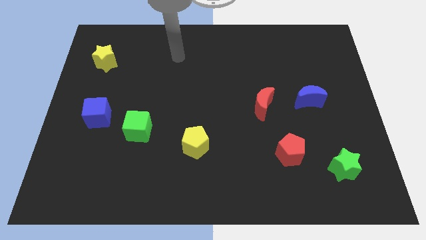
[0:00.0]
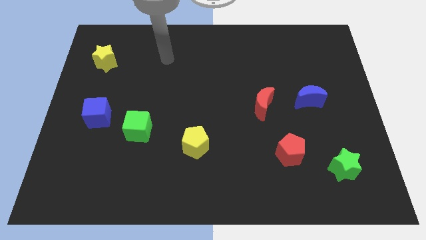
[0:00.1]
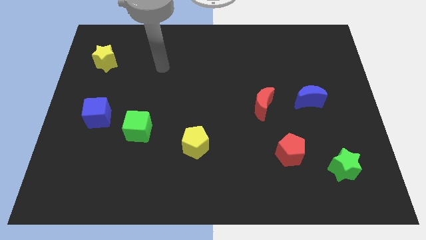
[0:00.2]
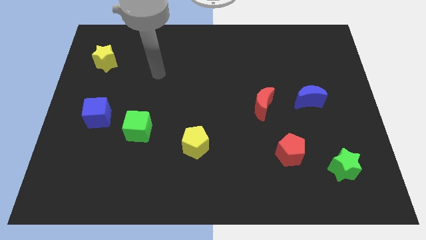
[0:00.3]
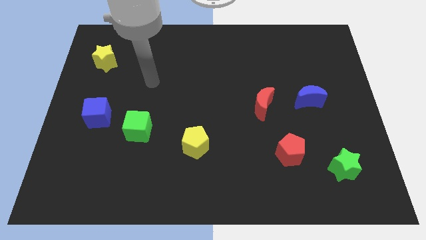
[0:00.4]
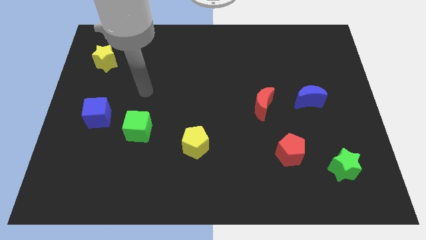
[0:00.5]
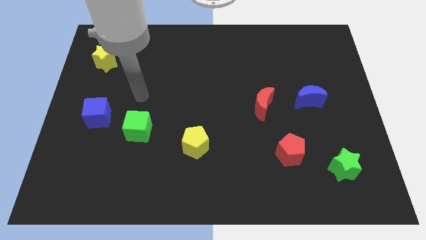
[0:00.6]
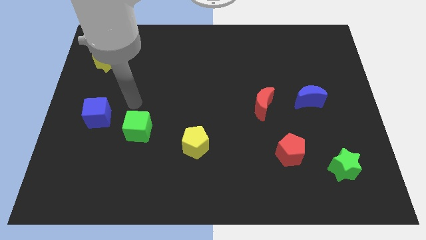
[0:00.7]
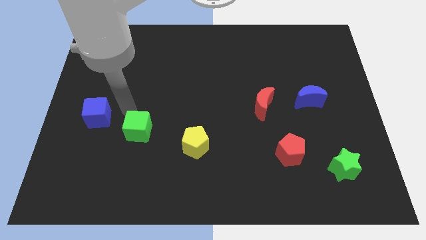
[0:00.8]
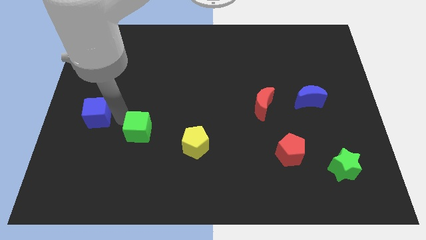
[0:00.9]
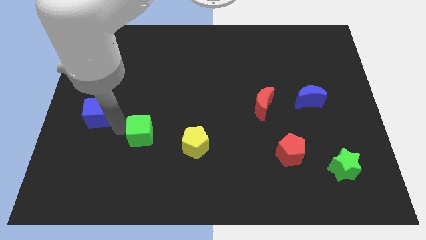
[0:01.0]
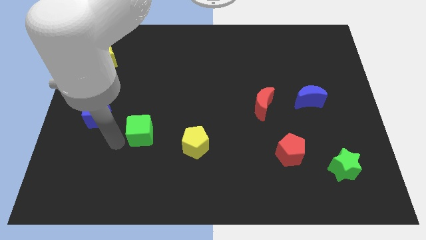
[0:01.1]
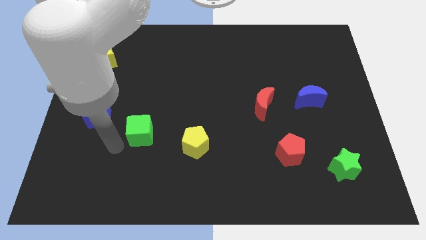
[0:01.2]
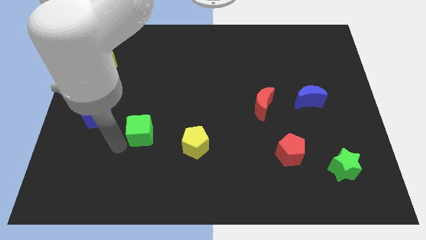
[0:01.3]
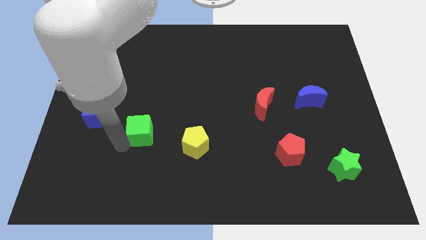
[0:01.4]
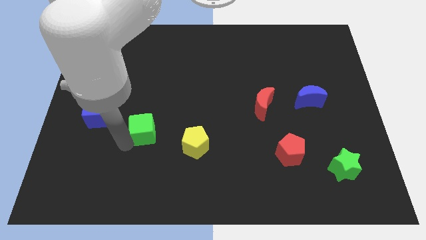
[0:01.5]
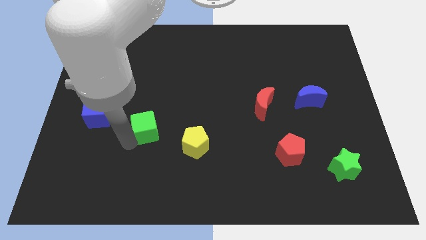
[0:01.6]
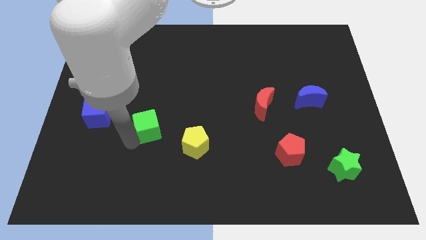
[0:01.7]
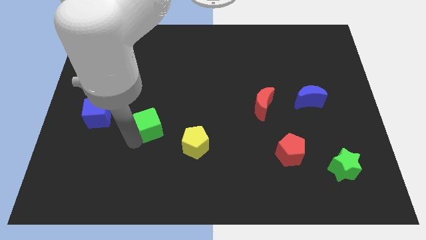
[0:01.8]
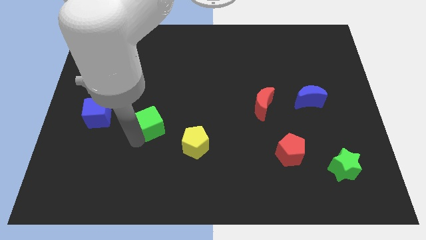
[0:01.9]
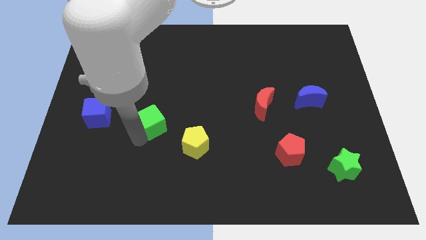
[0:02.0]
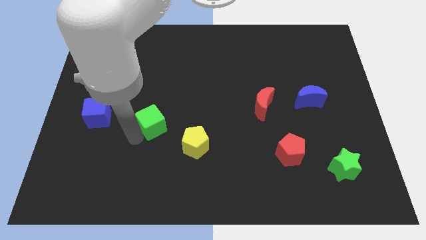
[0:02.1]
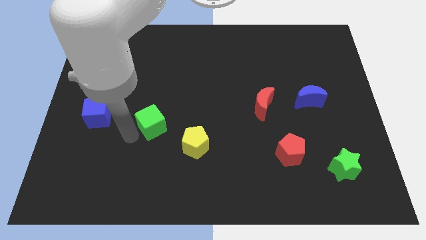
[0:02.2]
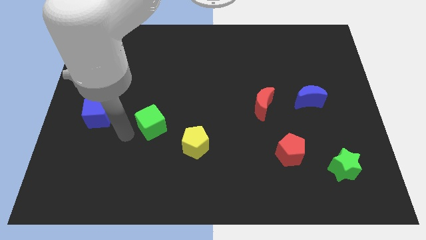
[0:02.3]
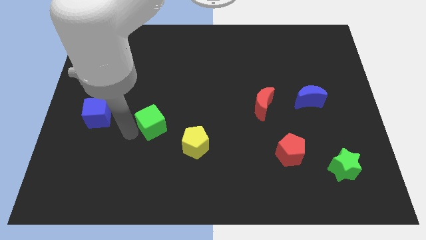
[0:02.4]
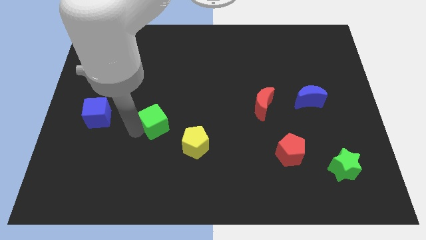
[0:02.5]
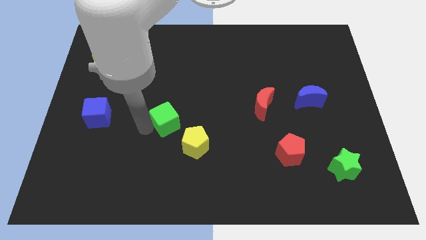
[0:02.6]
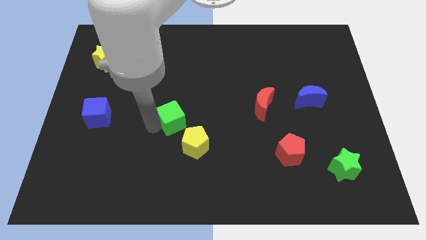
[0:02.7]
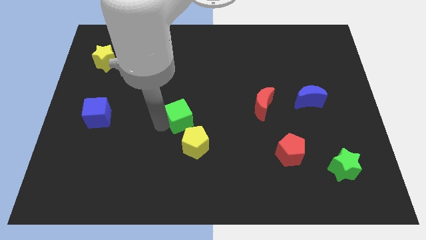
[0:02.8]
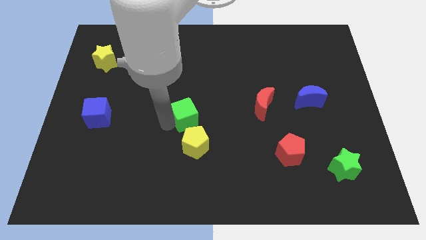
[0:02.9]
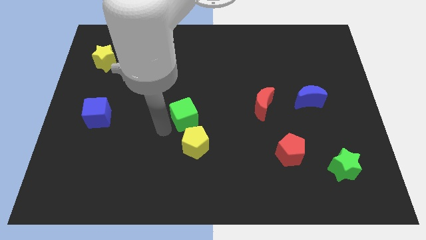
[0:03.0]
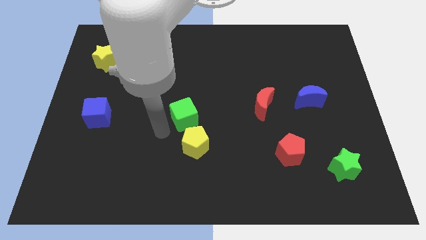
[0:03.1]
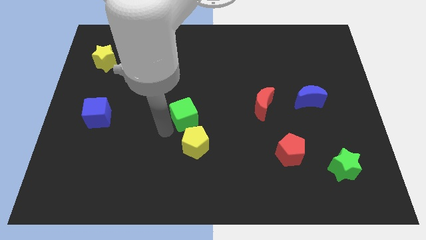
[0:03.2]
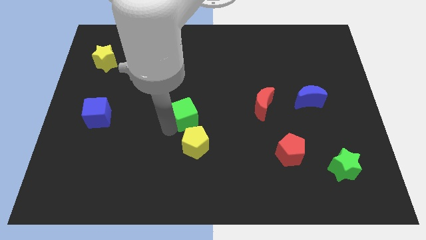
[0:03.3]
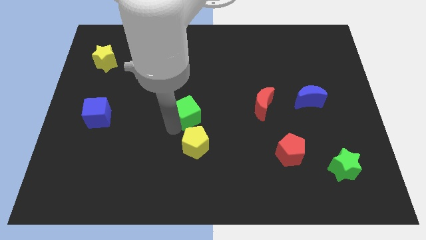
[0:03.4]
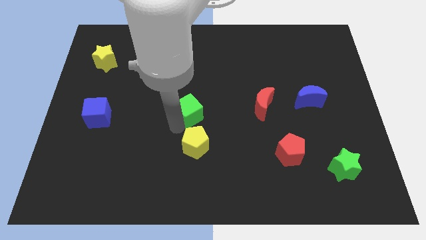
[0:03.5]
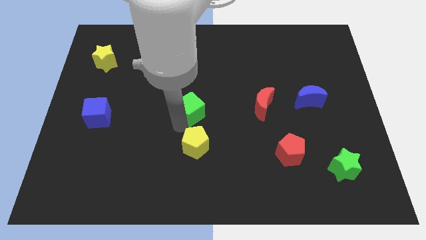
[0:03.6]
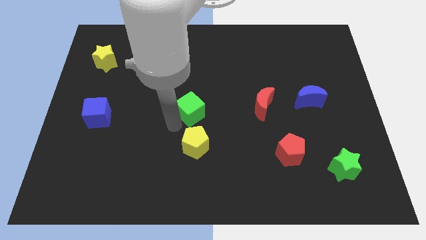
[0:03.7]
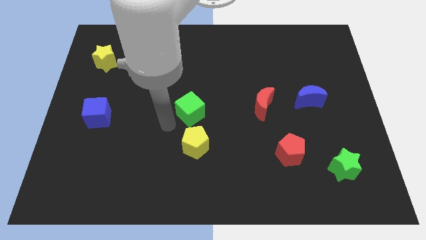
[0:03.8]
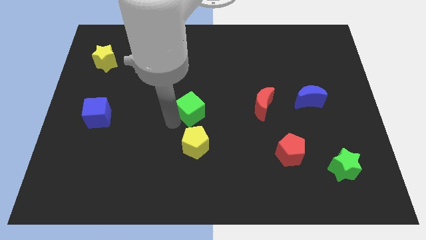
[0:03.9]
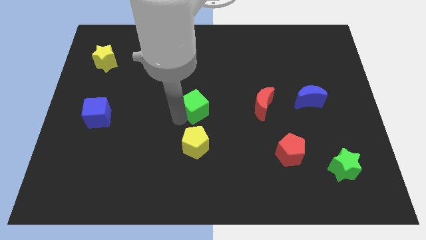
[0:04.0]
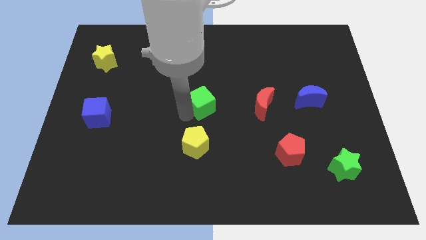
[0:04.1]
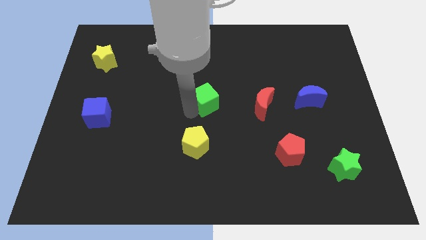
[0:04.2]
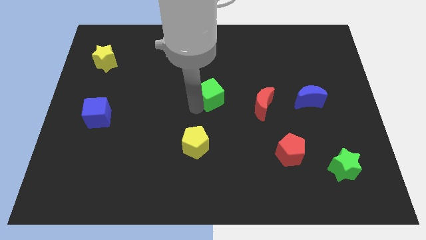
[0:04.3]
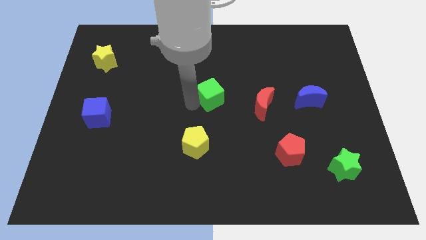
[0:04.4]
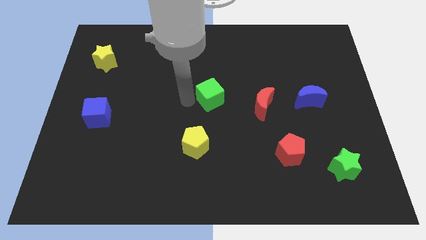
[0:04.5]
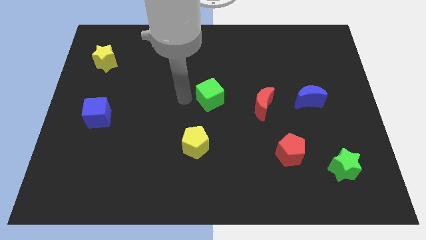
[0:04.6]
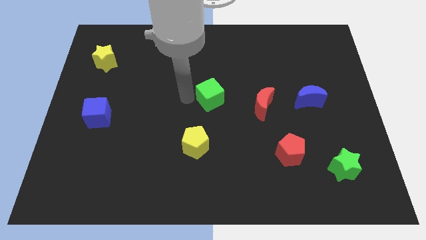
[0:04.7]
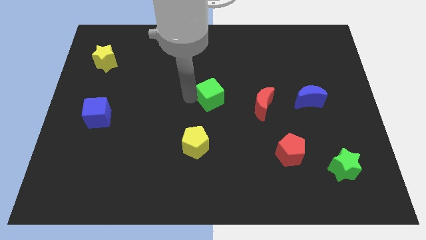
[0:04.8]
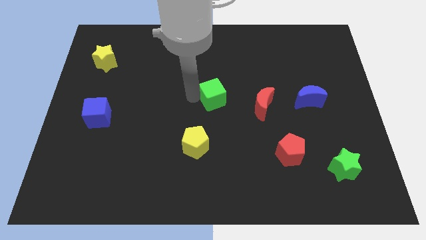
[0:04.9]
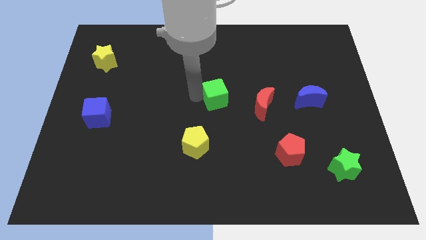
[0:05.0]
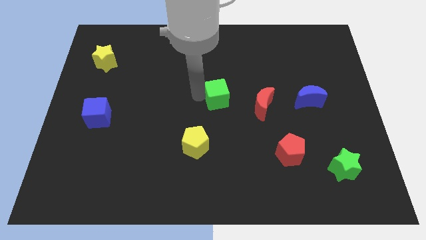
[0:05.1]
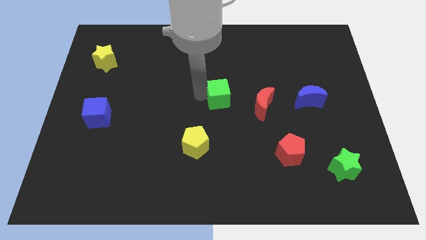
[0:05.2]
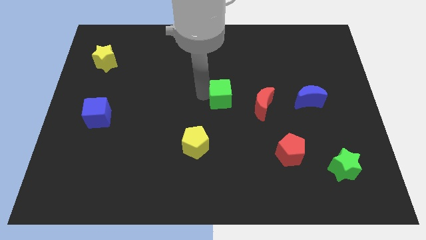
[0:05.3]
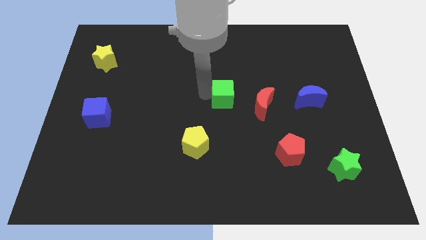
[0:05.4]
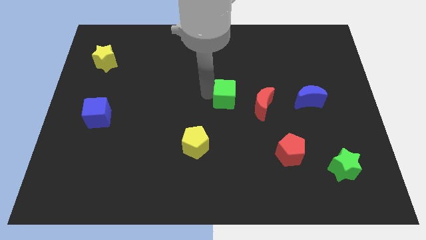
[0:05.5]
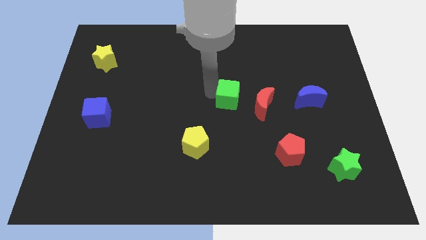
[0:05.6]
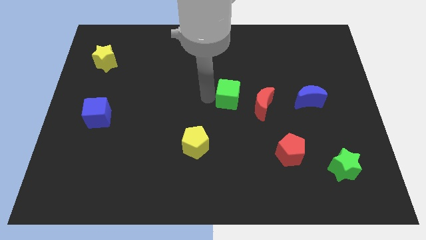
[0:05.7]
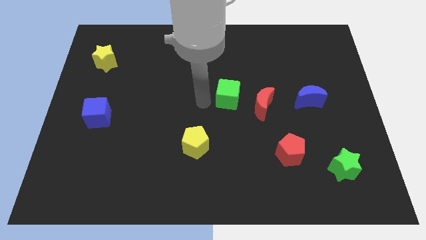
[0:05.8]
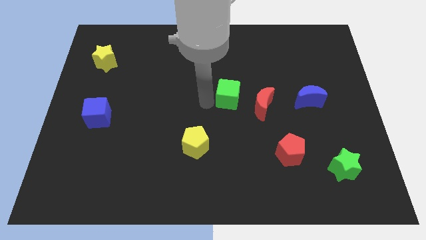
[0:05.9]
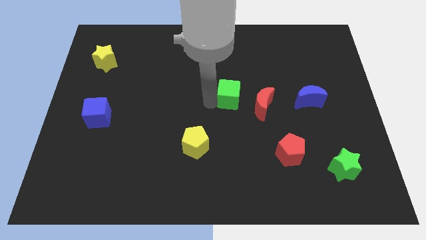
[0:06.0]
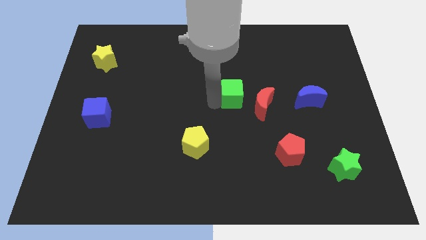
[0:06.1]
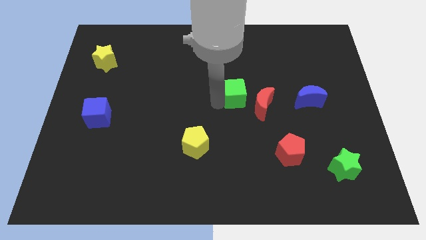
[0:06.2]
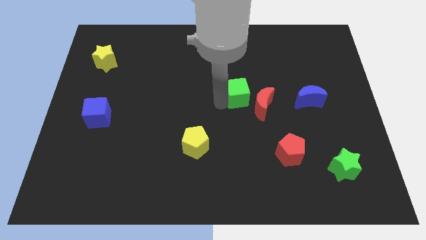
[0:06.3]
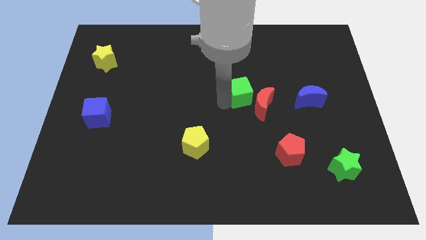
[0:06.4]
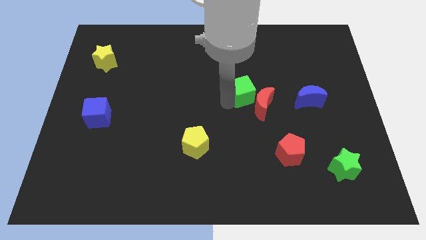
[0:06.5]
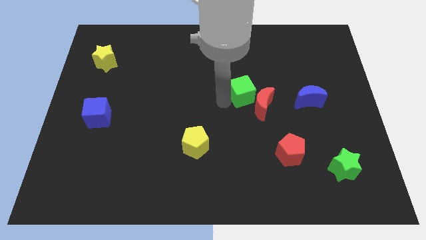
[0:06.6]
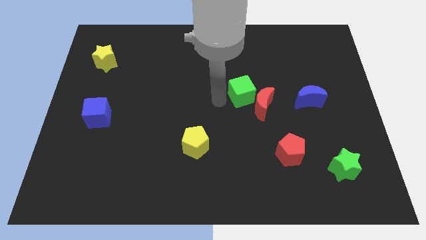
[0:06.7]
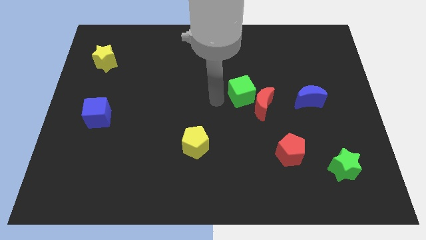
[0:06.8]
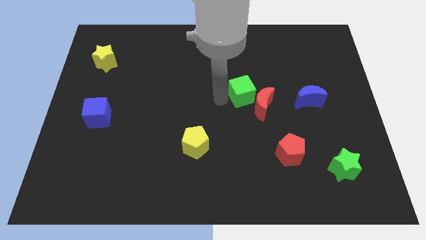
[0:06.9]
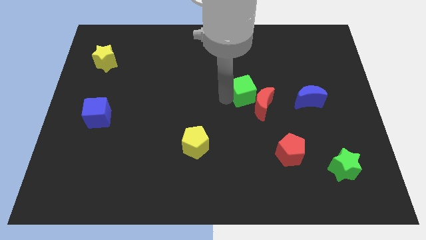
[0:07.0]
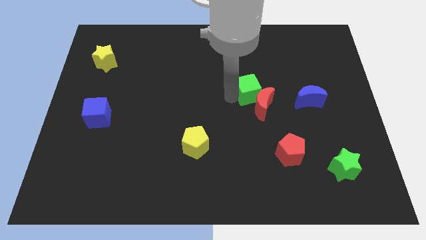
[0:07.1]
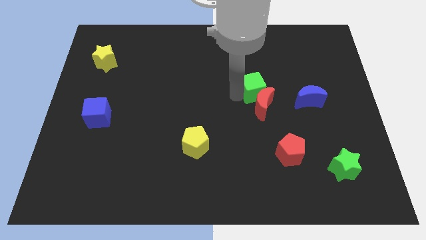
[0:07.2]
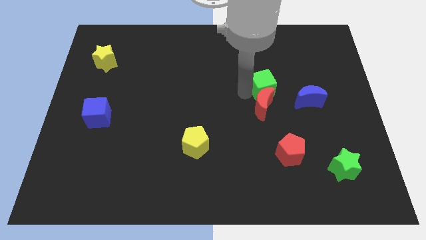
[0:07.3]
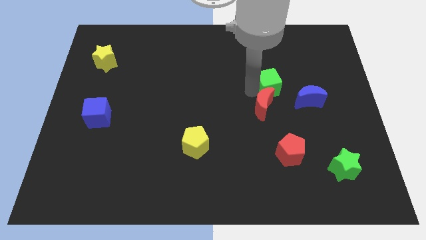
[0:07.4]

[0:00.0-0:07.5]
slide the green cube diagonally up and to the left of the blue moon
